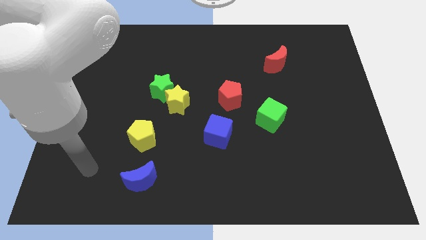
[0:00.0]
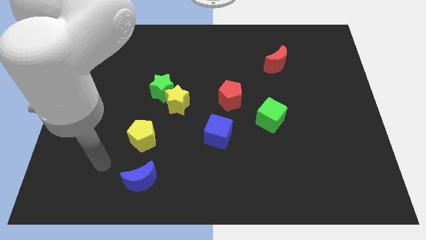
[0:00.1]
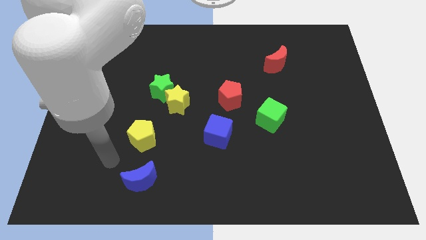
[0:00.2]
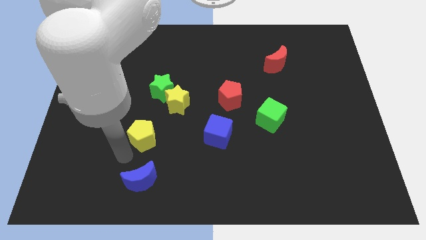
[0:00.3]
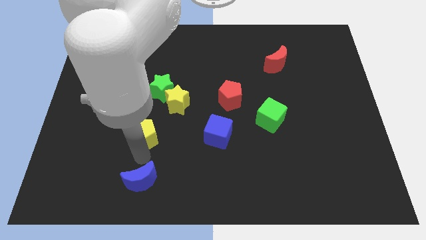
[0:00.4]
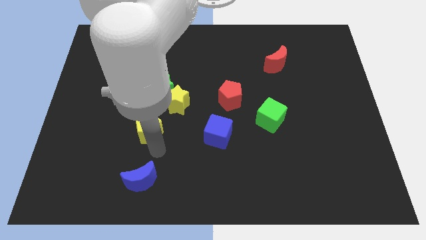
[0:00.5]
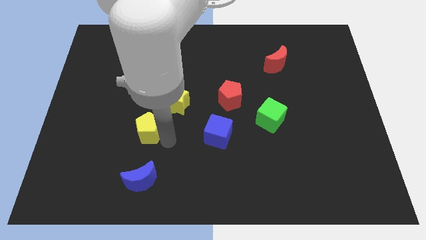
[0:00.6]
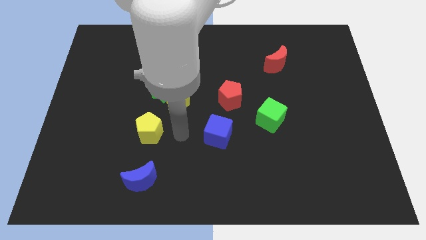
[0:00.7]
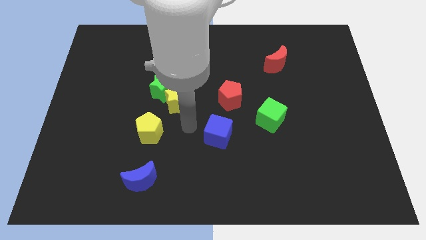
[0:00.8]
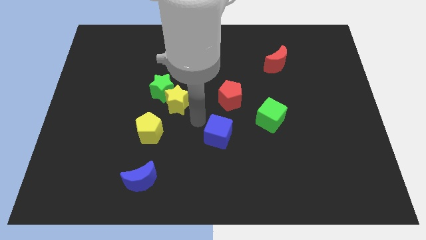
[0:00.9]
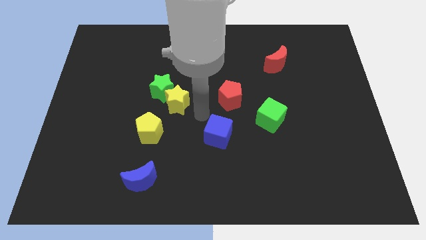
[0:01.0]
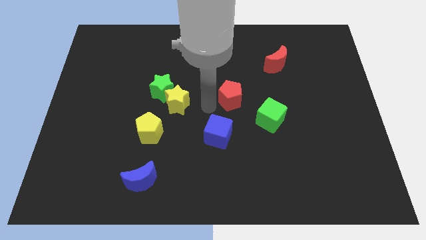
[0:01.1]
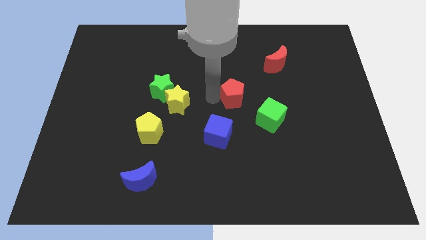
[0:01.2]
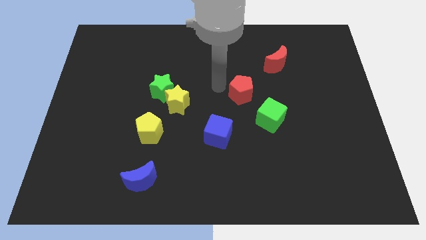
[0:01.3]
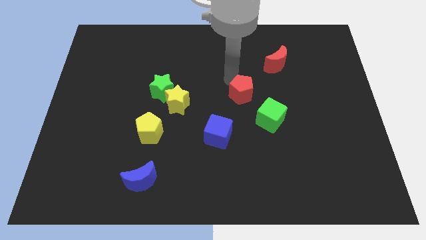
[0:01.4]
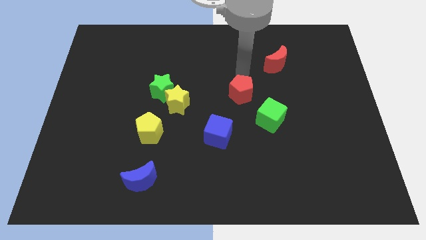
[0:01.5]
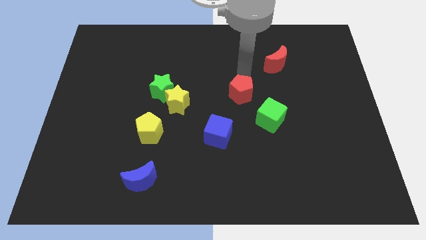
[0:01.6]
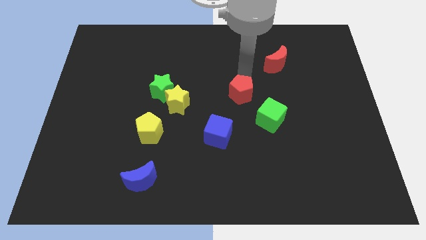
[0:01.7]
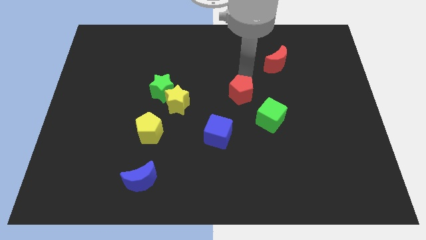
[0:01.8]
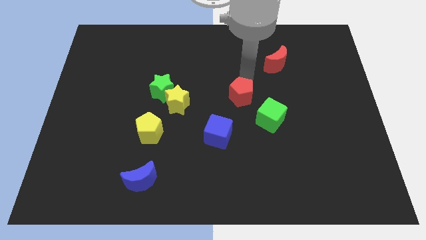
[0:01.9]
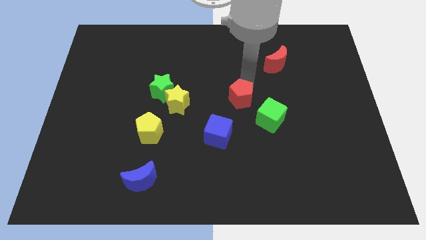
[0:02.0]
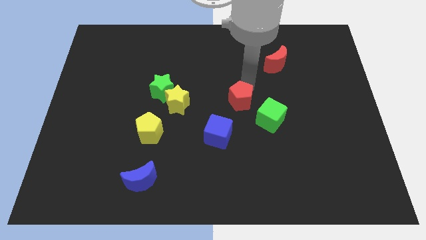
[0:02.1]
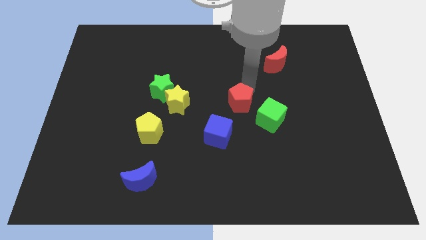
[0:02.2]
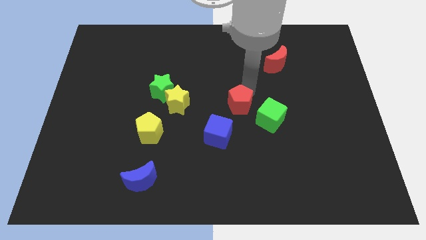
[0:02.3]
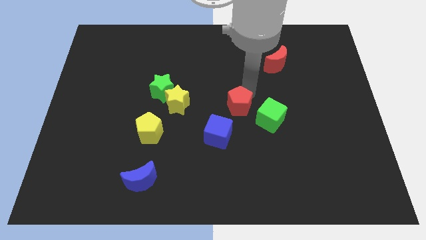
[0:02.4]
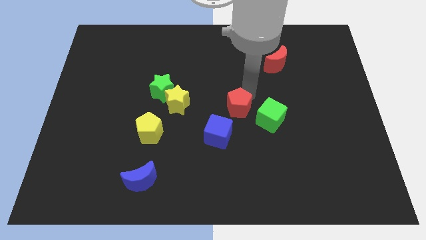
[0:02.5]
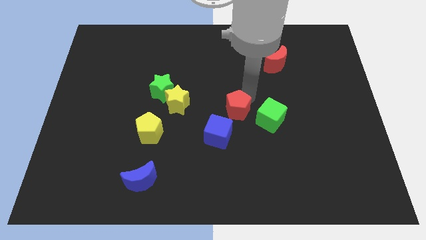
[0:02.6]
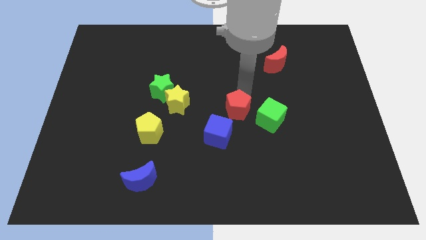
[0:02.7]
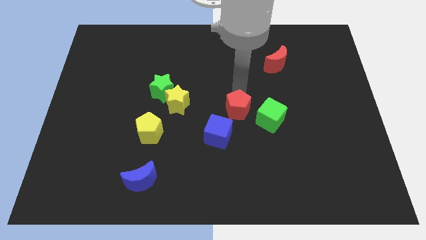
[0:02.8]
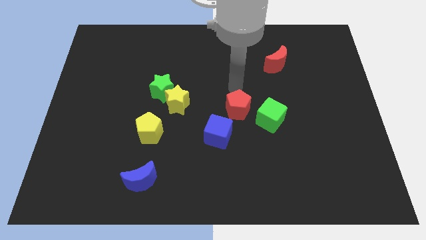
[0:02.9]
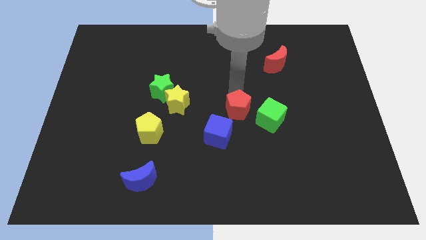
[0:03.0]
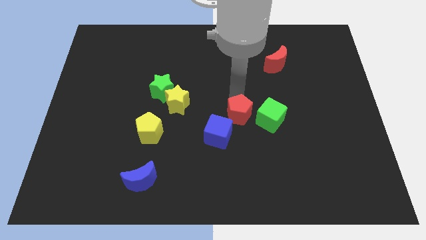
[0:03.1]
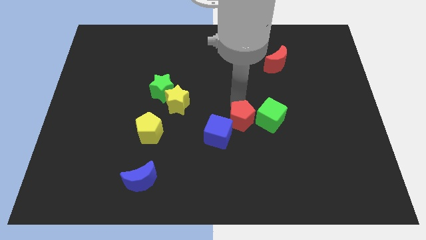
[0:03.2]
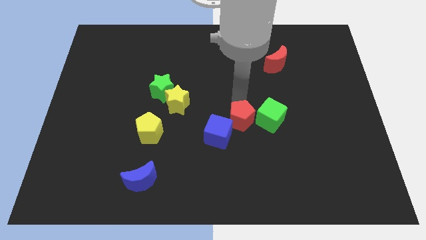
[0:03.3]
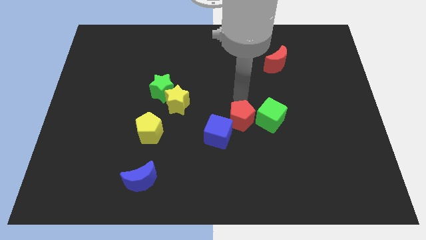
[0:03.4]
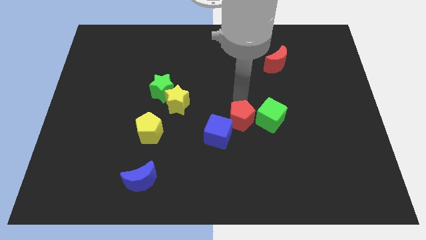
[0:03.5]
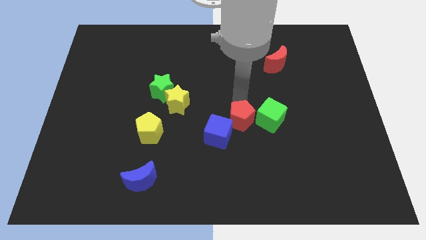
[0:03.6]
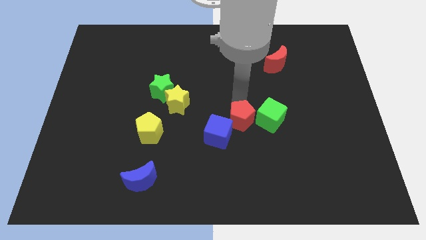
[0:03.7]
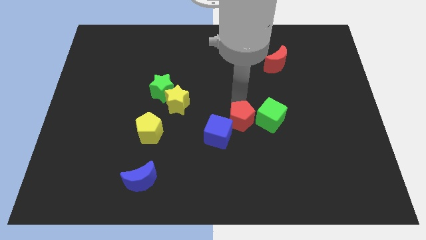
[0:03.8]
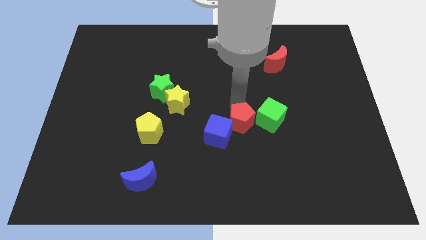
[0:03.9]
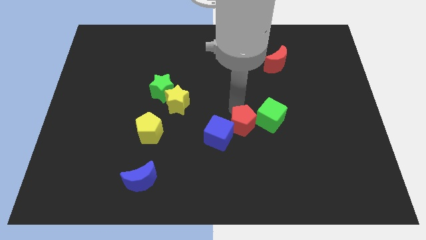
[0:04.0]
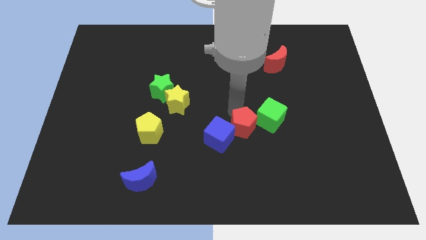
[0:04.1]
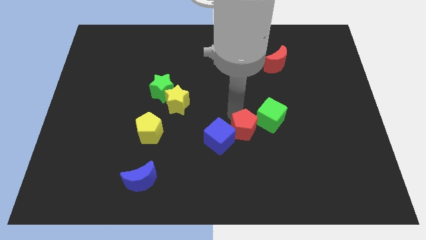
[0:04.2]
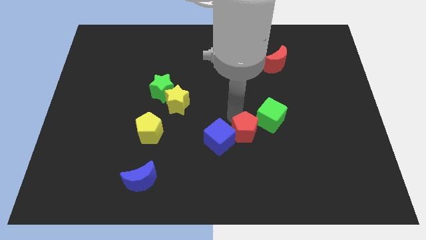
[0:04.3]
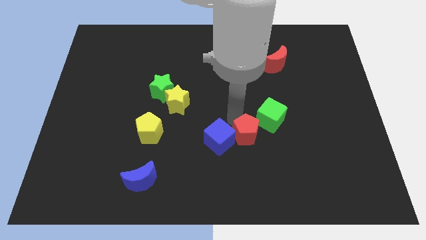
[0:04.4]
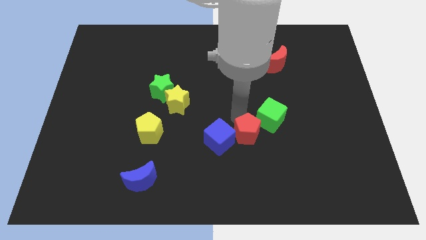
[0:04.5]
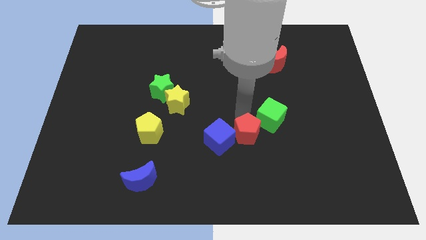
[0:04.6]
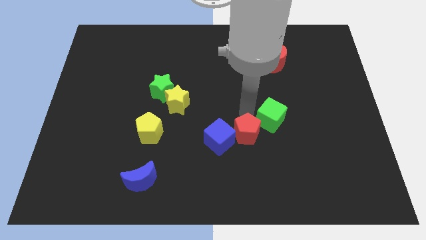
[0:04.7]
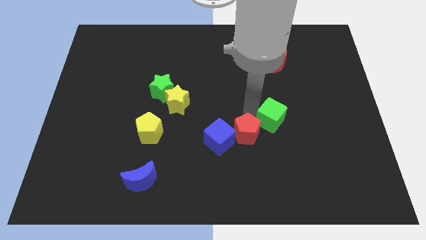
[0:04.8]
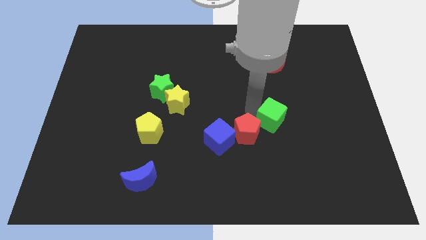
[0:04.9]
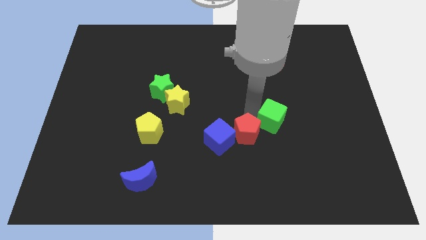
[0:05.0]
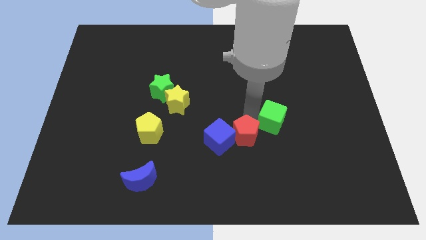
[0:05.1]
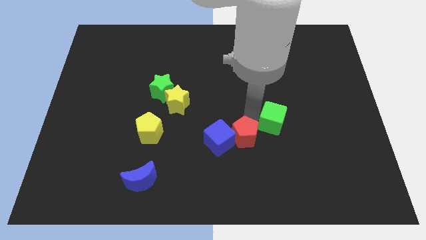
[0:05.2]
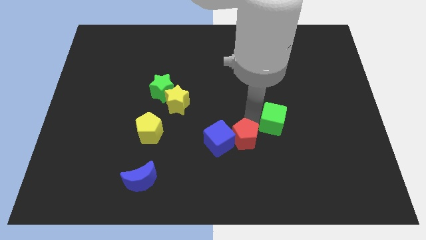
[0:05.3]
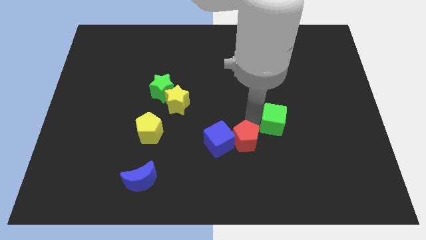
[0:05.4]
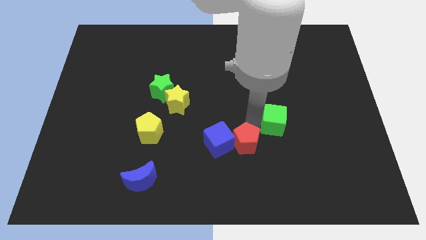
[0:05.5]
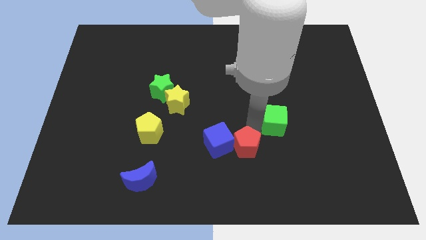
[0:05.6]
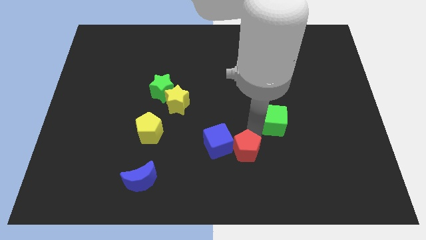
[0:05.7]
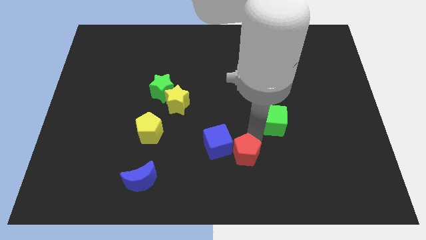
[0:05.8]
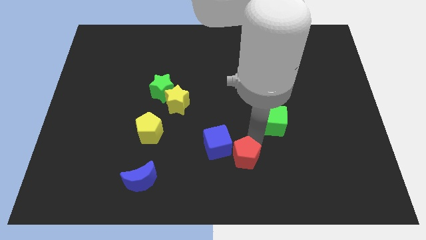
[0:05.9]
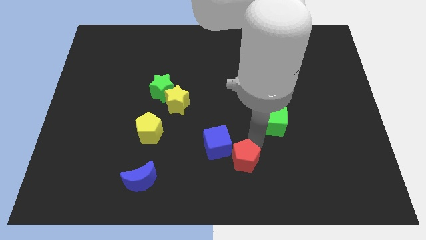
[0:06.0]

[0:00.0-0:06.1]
move the red pentagon to the bottom side

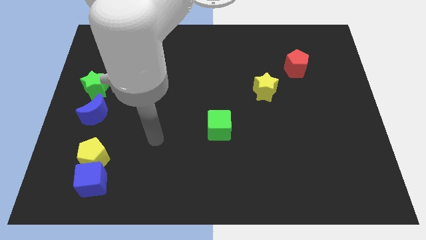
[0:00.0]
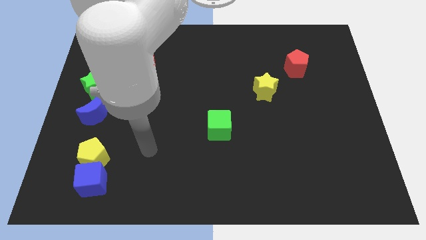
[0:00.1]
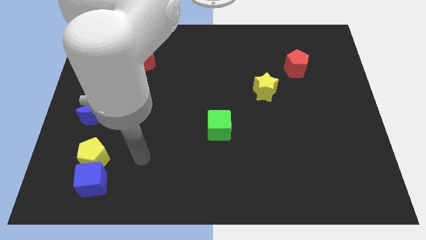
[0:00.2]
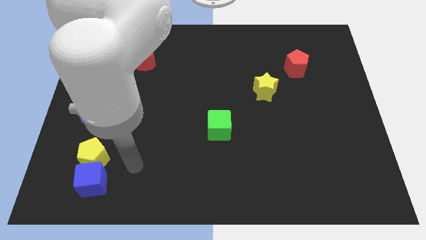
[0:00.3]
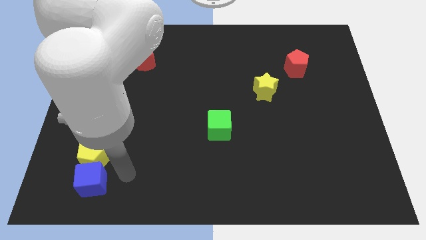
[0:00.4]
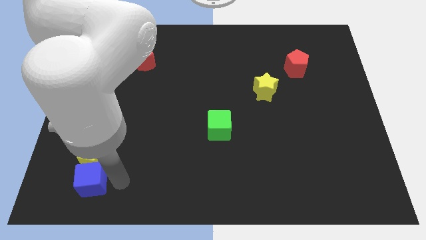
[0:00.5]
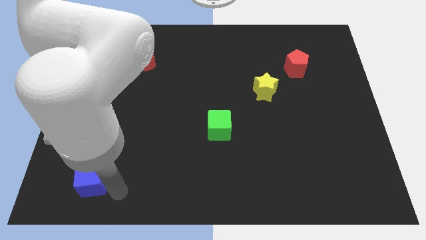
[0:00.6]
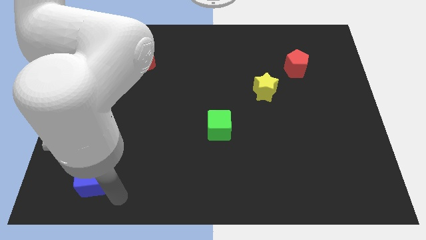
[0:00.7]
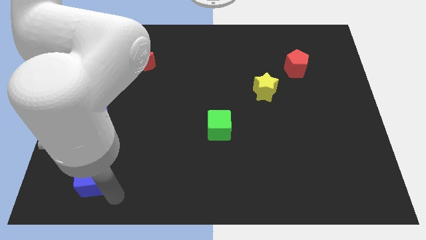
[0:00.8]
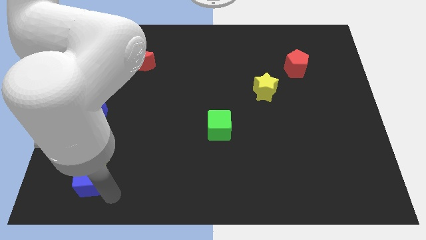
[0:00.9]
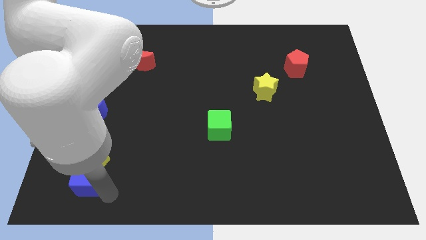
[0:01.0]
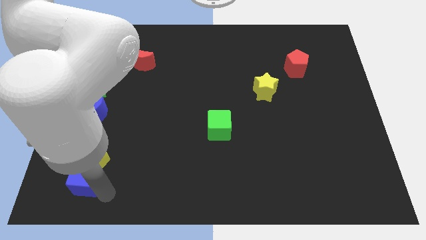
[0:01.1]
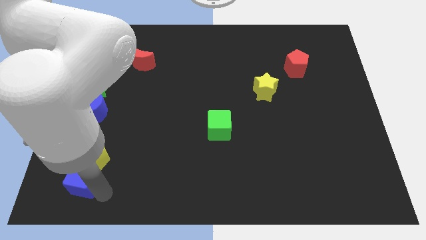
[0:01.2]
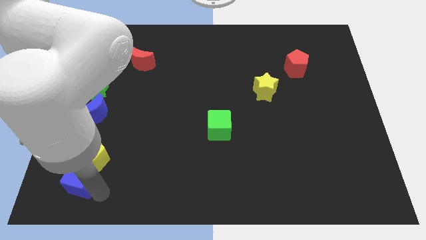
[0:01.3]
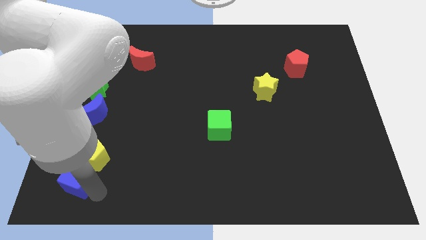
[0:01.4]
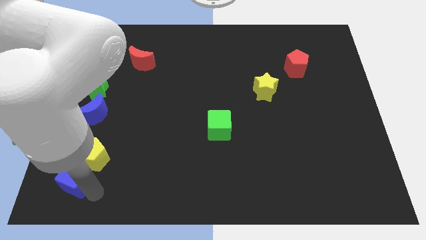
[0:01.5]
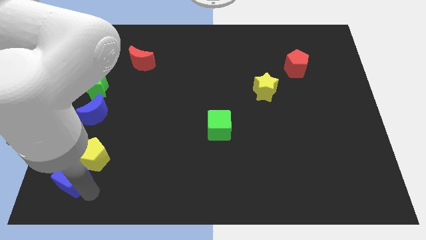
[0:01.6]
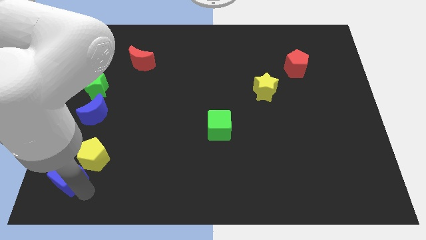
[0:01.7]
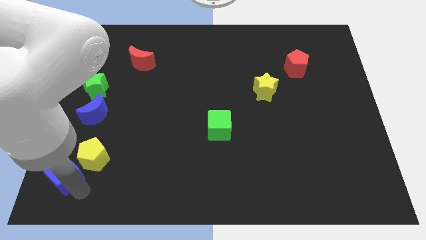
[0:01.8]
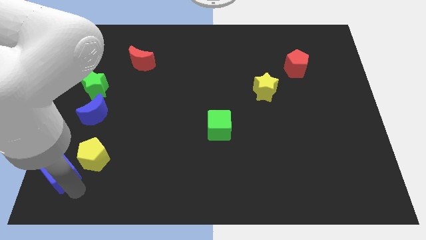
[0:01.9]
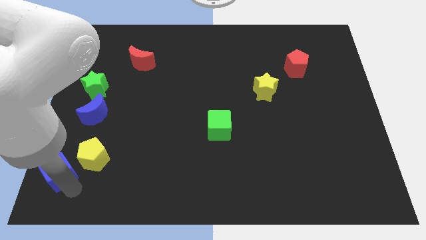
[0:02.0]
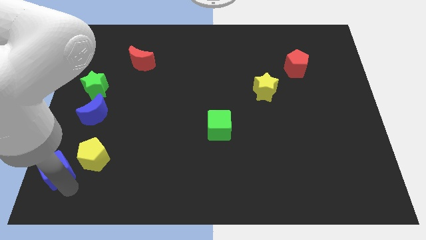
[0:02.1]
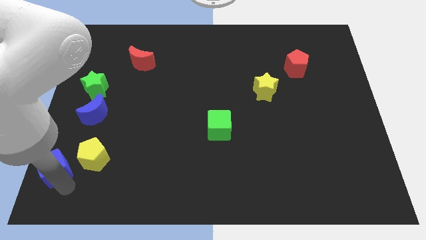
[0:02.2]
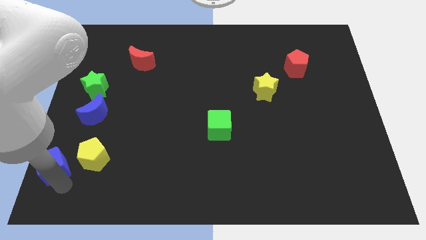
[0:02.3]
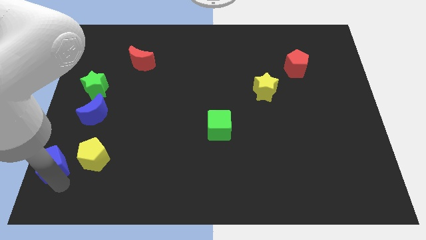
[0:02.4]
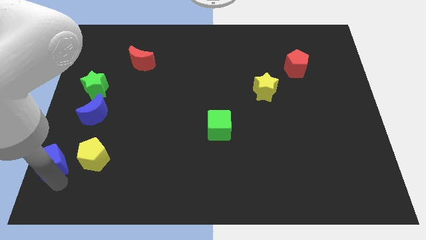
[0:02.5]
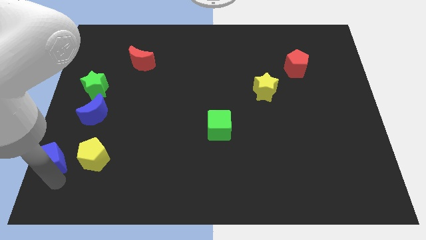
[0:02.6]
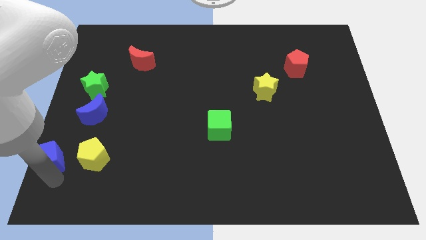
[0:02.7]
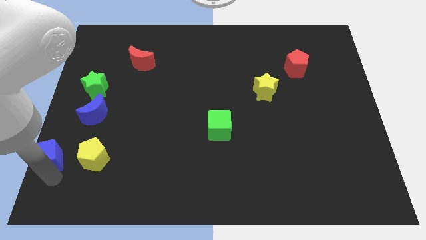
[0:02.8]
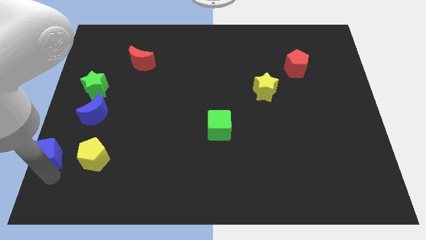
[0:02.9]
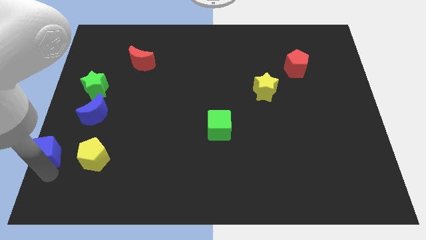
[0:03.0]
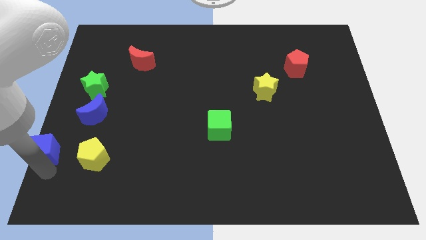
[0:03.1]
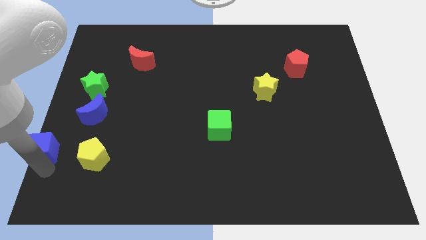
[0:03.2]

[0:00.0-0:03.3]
move the blue cube to the center left
